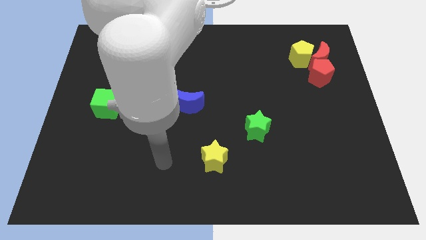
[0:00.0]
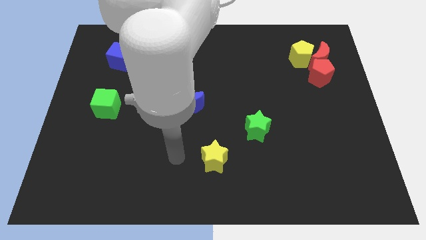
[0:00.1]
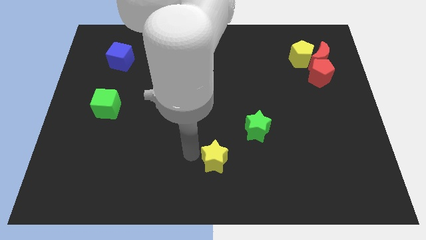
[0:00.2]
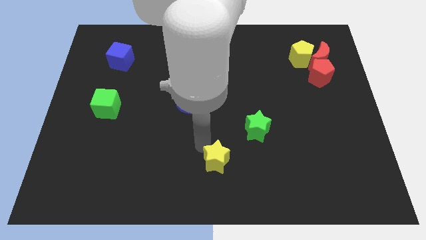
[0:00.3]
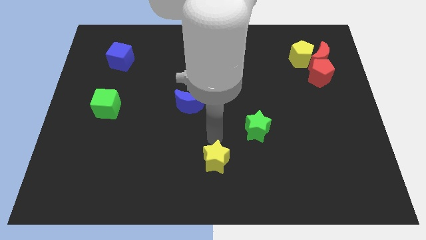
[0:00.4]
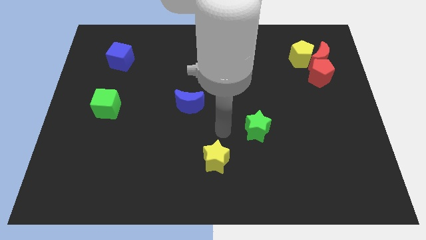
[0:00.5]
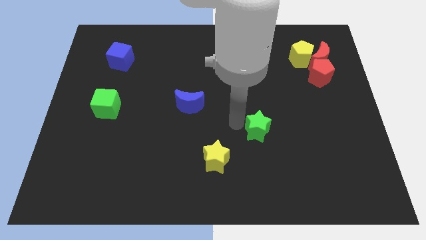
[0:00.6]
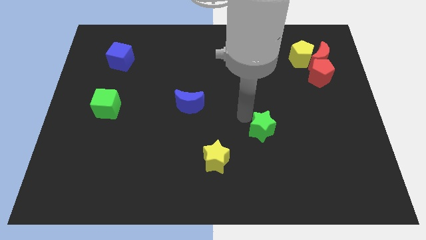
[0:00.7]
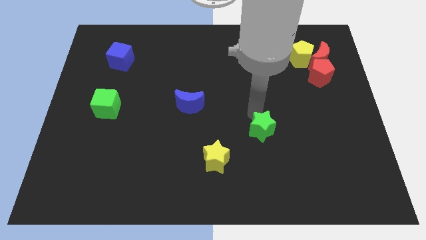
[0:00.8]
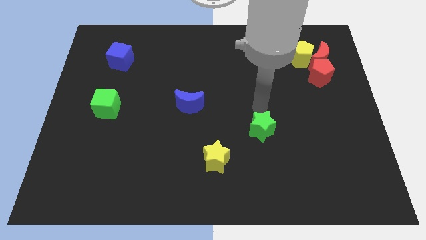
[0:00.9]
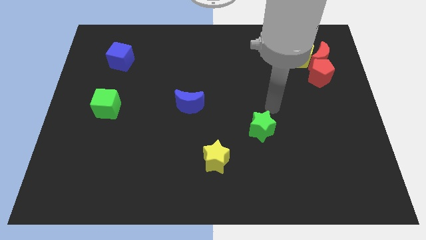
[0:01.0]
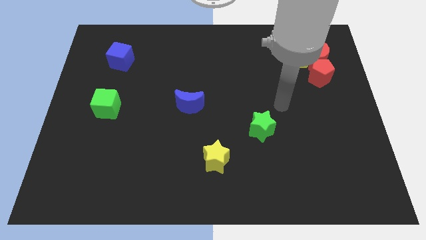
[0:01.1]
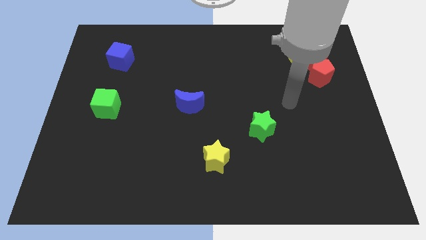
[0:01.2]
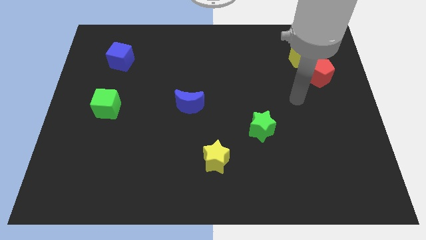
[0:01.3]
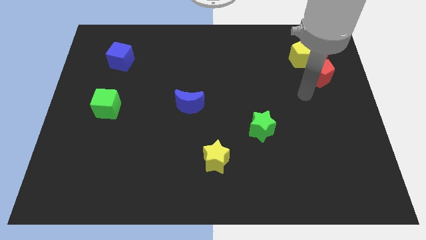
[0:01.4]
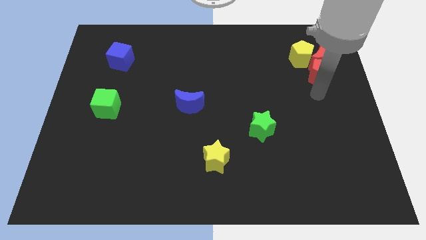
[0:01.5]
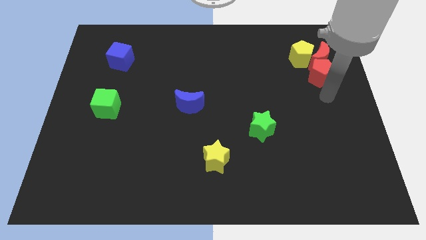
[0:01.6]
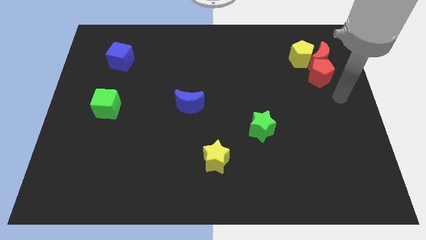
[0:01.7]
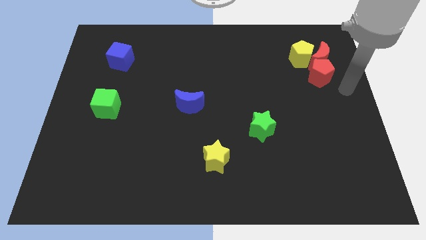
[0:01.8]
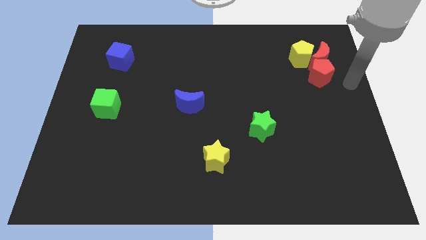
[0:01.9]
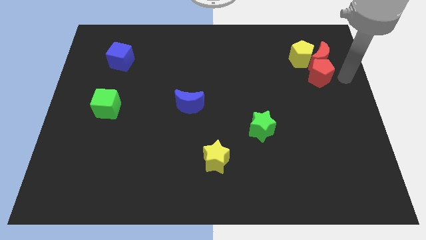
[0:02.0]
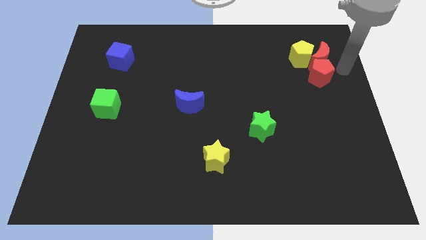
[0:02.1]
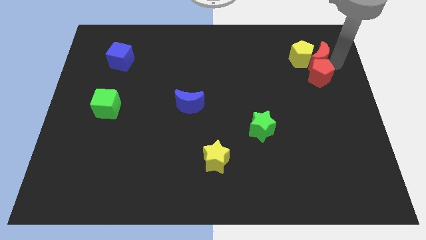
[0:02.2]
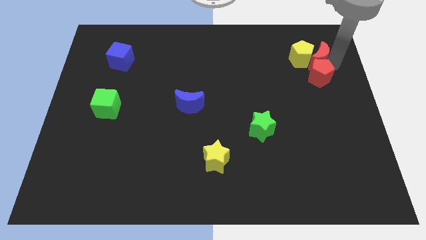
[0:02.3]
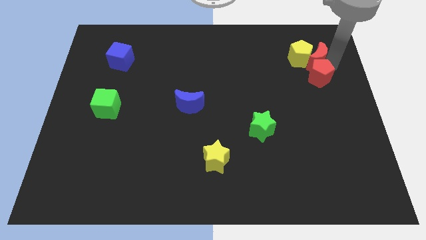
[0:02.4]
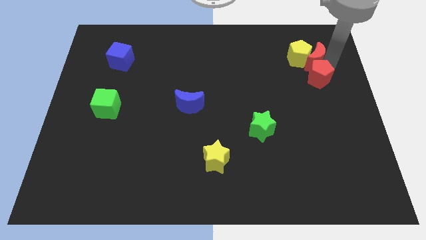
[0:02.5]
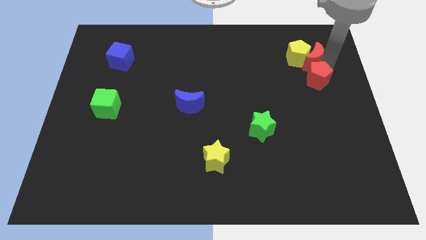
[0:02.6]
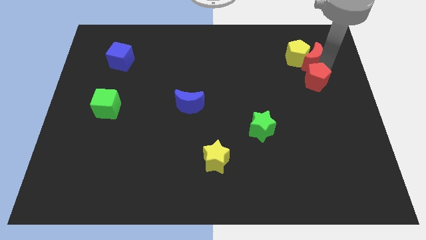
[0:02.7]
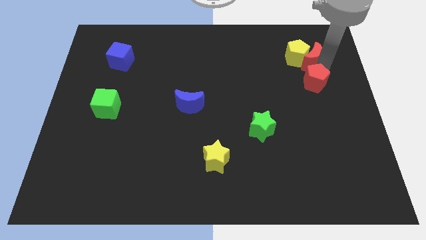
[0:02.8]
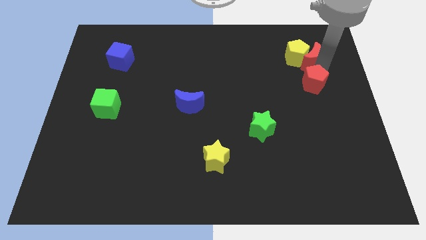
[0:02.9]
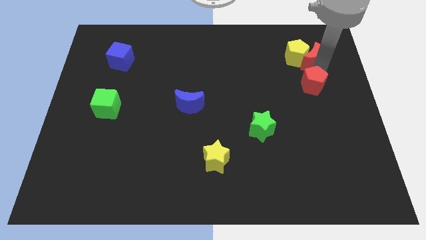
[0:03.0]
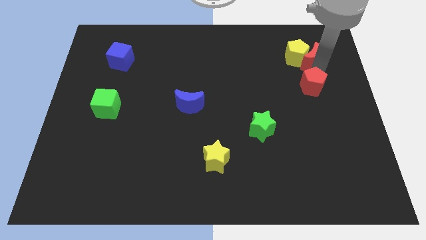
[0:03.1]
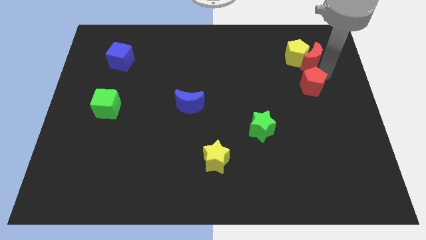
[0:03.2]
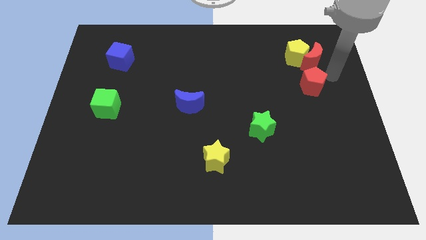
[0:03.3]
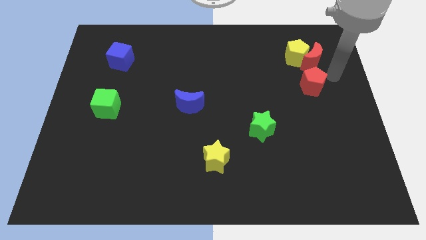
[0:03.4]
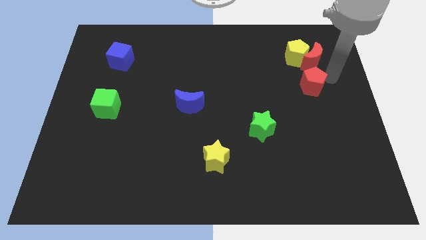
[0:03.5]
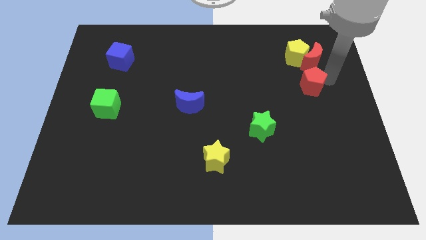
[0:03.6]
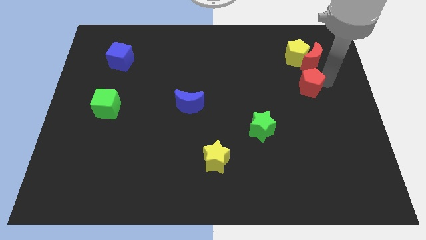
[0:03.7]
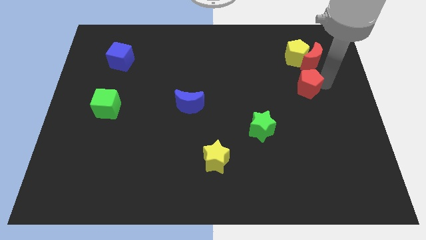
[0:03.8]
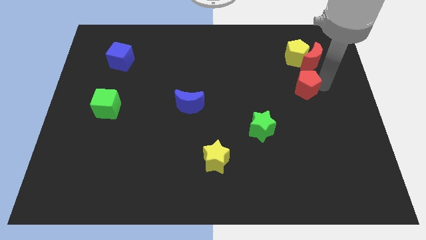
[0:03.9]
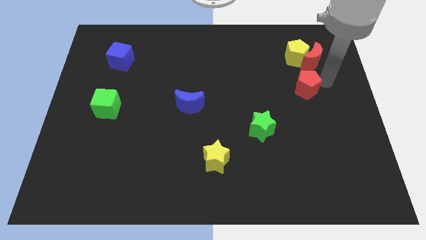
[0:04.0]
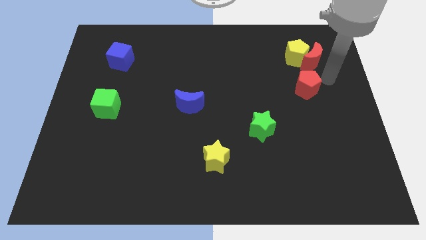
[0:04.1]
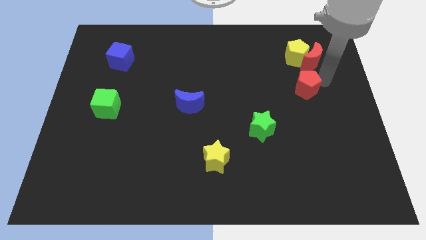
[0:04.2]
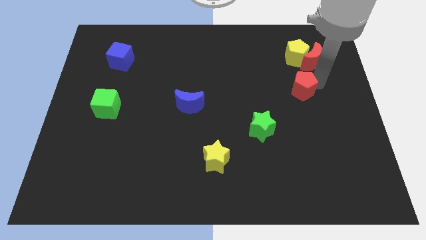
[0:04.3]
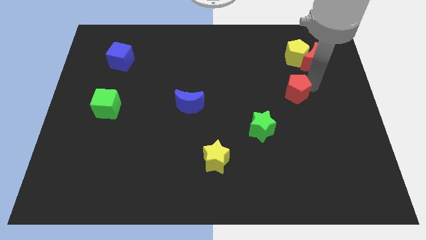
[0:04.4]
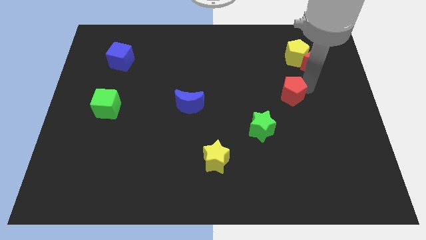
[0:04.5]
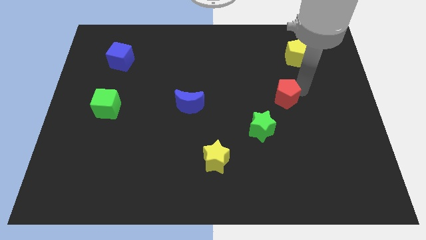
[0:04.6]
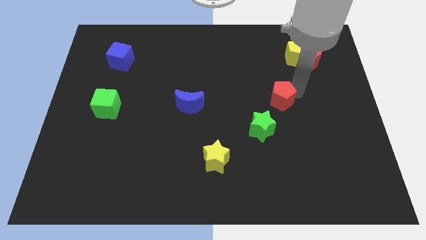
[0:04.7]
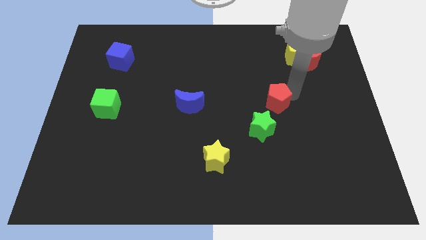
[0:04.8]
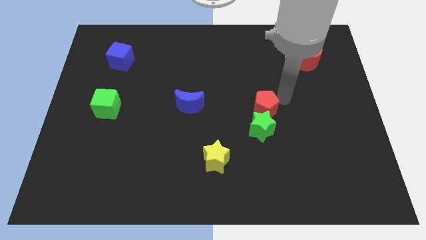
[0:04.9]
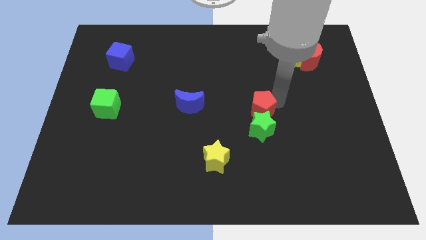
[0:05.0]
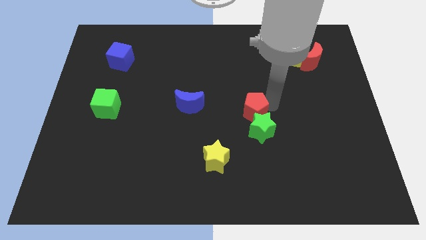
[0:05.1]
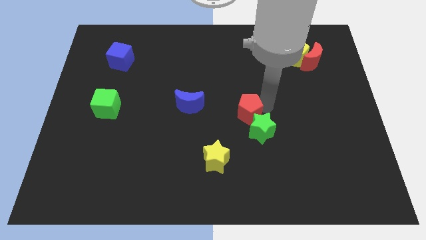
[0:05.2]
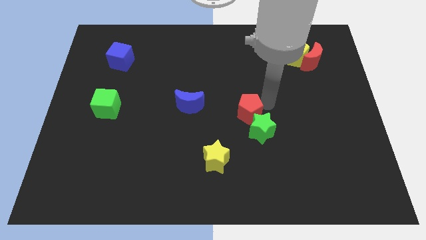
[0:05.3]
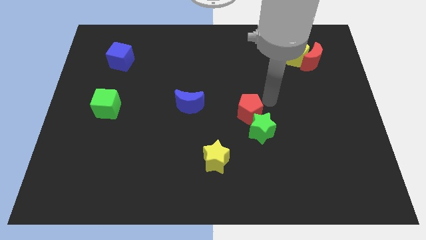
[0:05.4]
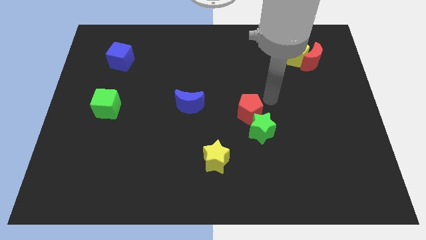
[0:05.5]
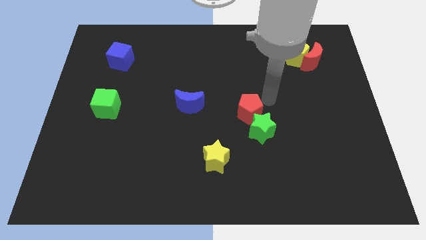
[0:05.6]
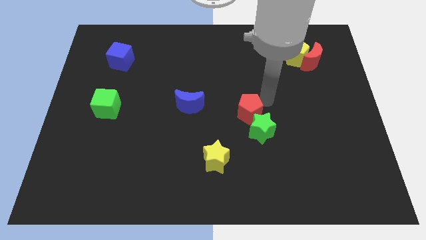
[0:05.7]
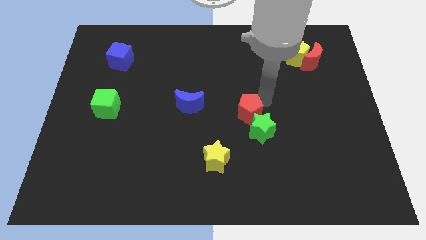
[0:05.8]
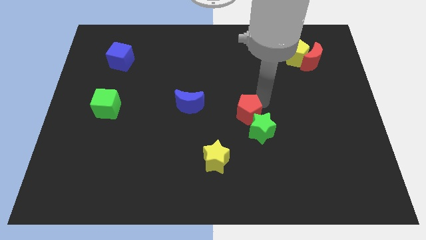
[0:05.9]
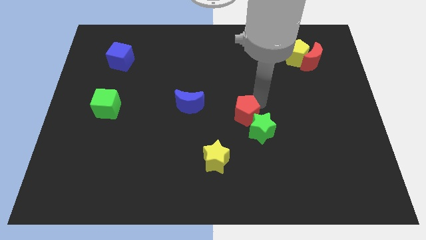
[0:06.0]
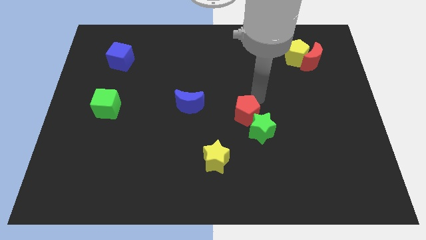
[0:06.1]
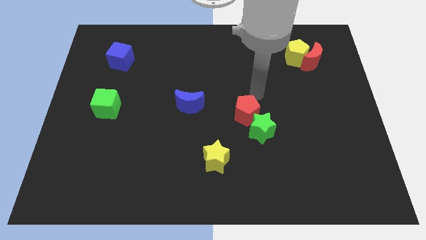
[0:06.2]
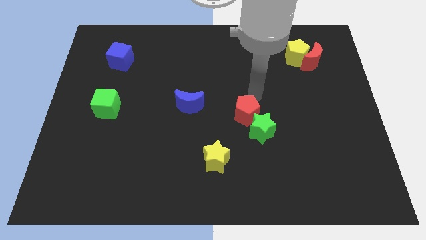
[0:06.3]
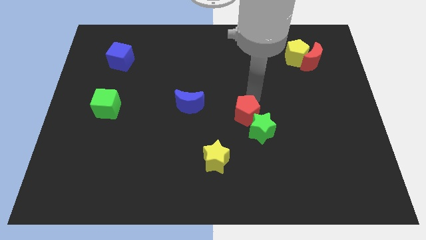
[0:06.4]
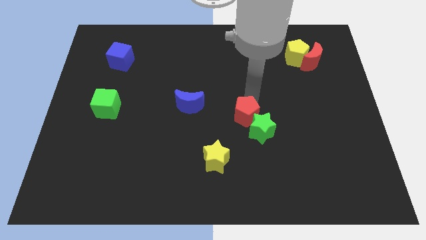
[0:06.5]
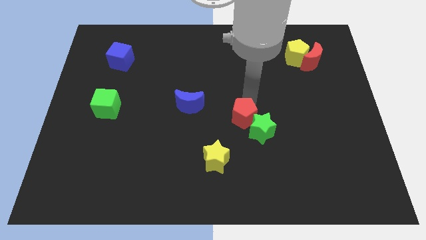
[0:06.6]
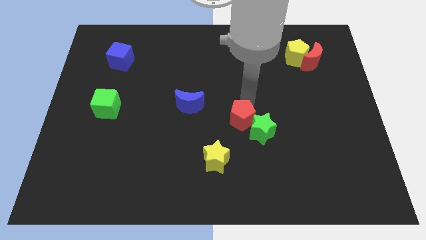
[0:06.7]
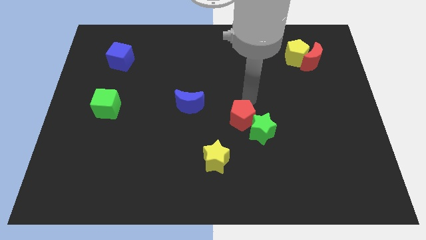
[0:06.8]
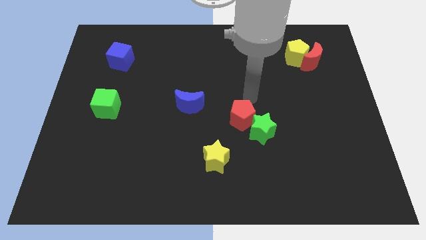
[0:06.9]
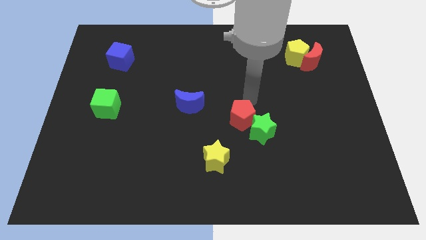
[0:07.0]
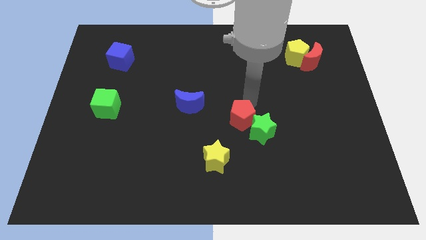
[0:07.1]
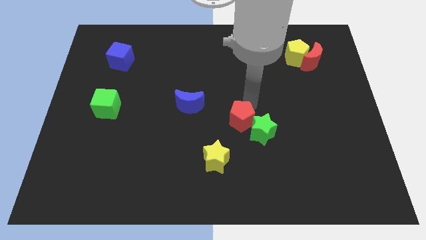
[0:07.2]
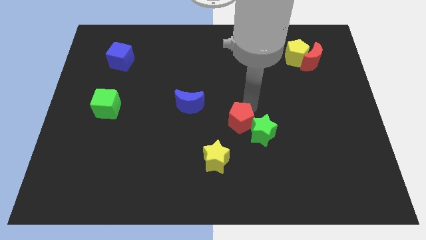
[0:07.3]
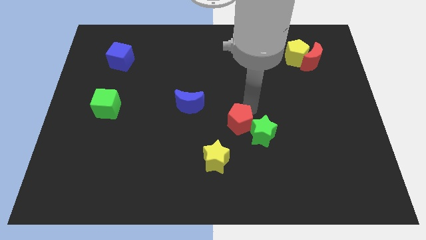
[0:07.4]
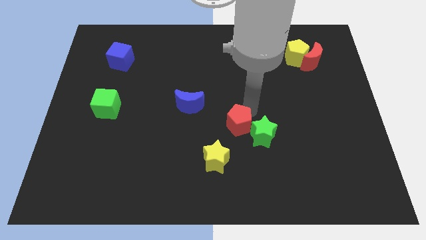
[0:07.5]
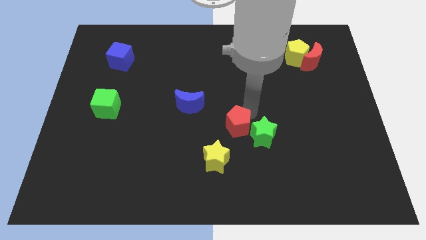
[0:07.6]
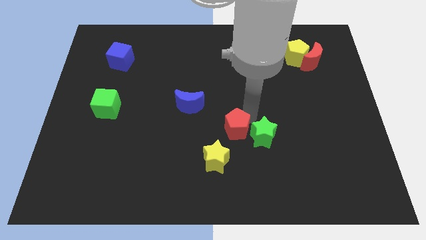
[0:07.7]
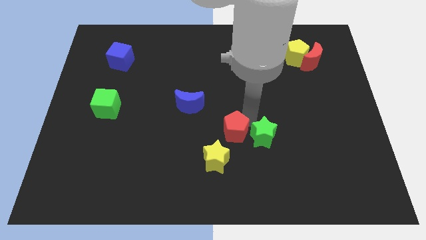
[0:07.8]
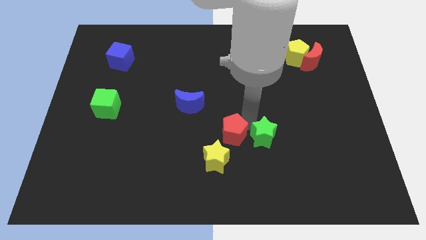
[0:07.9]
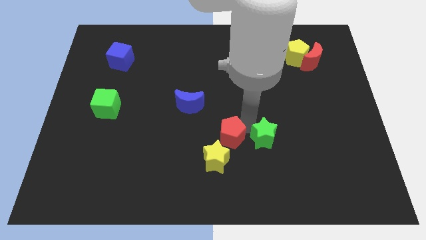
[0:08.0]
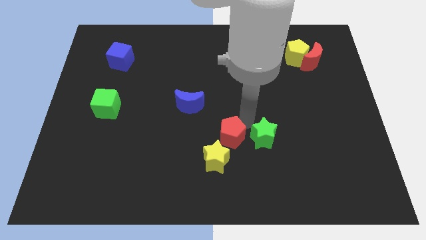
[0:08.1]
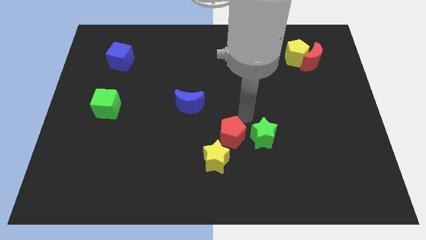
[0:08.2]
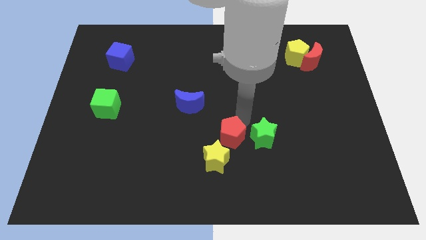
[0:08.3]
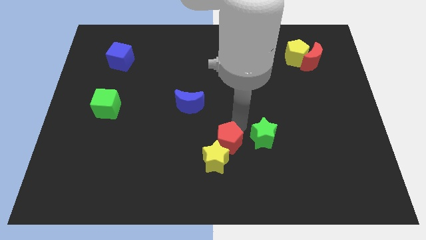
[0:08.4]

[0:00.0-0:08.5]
put the red pentagon to the yellow star
